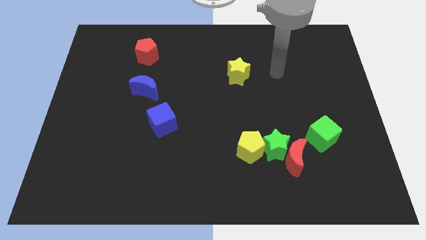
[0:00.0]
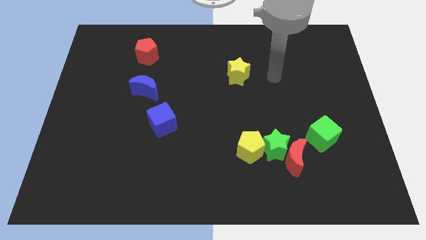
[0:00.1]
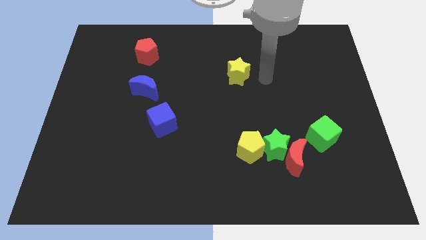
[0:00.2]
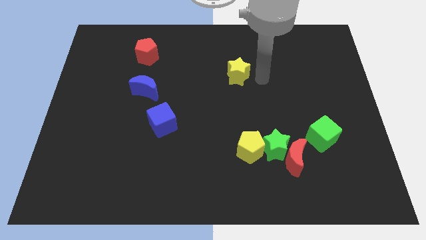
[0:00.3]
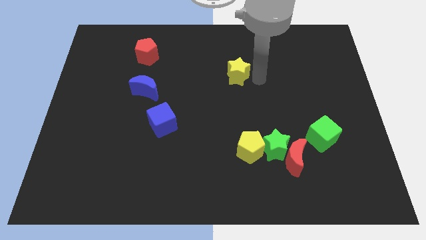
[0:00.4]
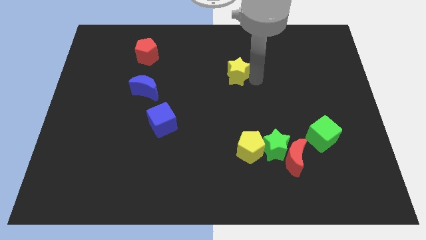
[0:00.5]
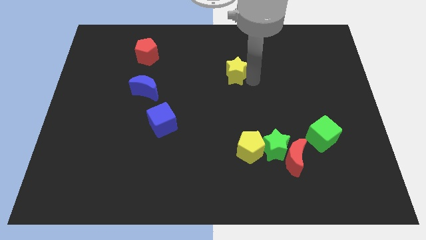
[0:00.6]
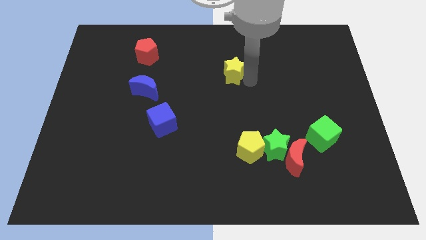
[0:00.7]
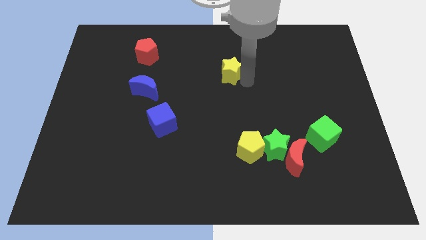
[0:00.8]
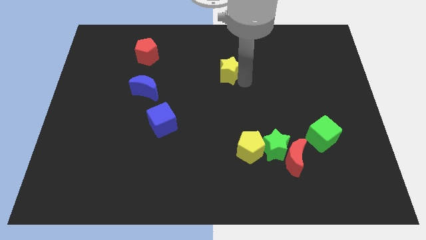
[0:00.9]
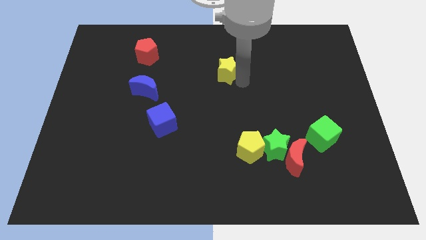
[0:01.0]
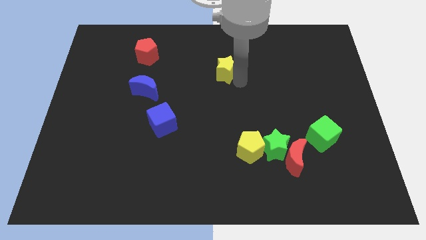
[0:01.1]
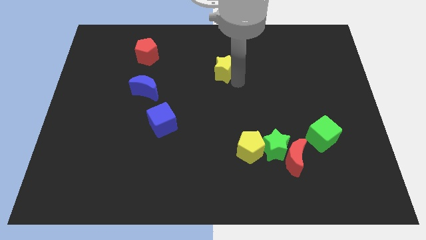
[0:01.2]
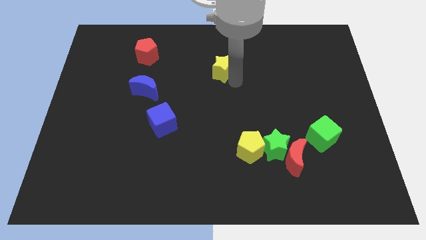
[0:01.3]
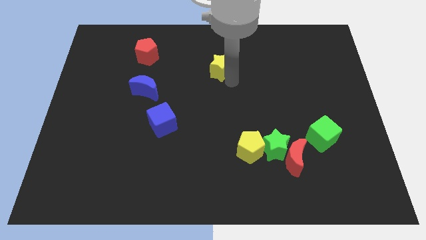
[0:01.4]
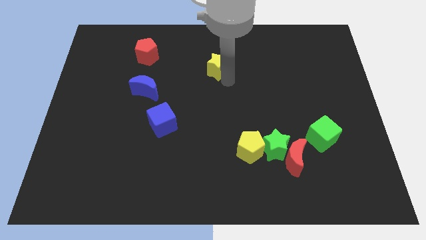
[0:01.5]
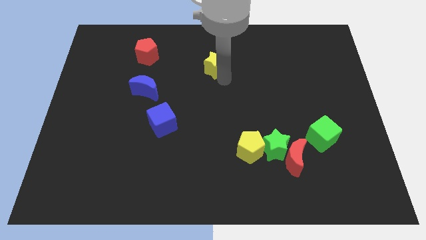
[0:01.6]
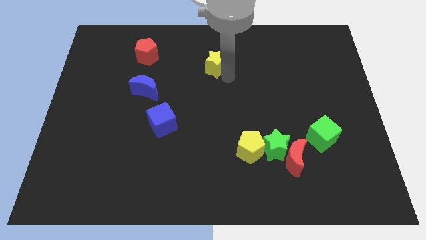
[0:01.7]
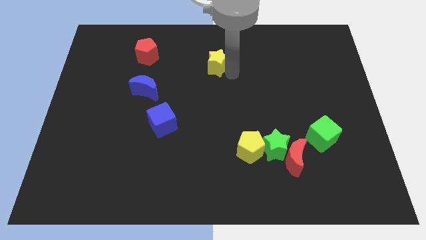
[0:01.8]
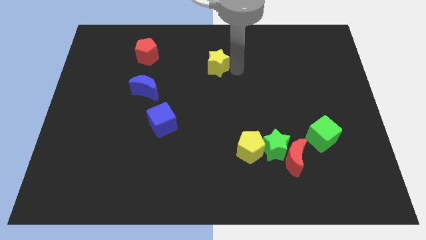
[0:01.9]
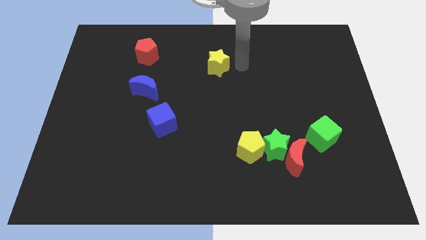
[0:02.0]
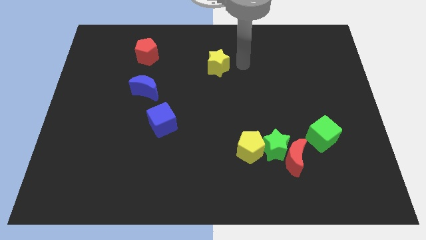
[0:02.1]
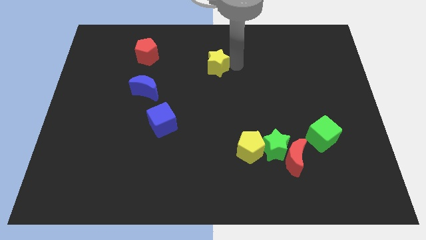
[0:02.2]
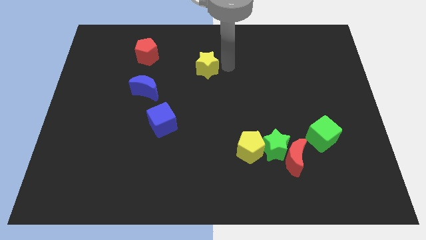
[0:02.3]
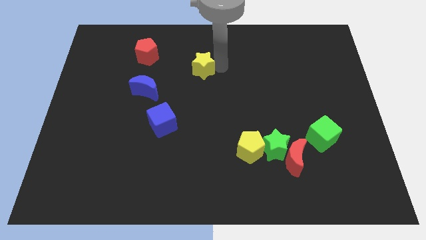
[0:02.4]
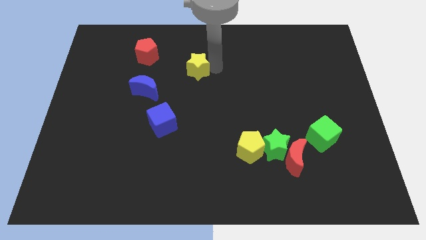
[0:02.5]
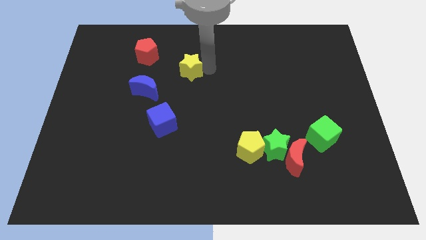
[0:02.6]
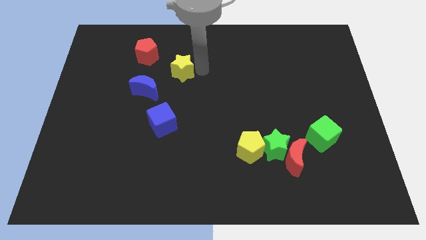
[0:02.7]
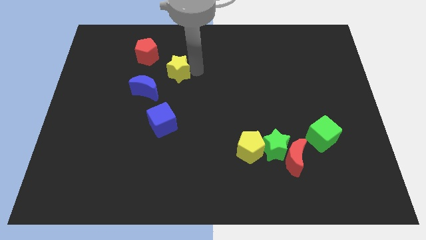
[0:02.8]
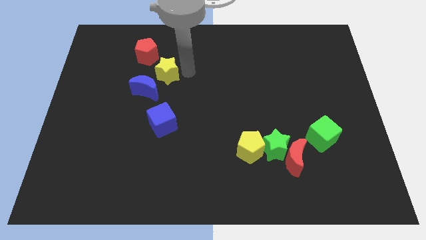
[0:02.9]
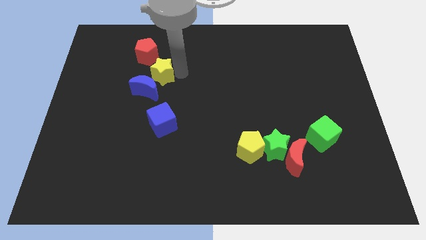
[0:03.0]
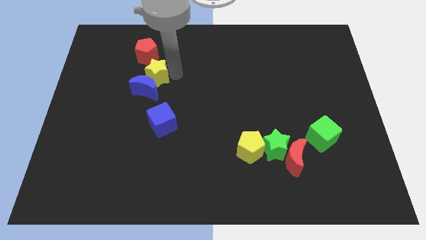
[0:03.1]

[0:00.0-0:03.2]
move the yellow star left

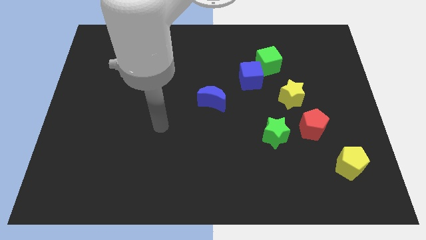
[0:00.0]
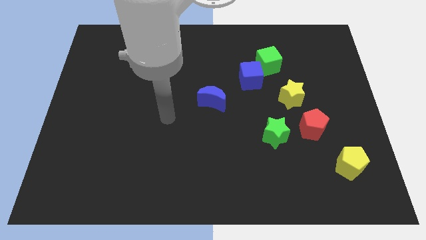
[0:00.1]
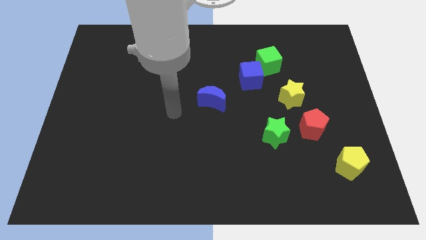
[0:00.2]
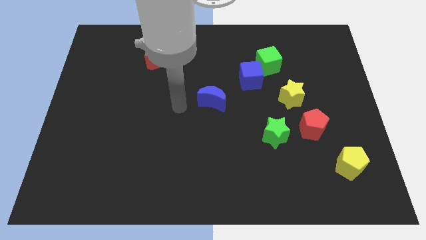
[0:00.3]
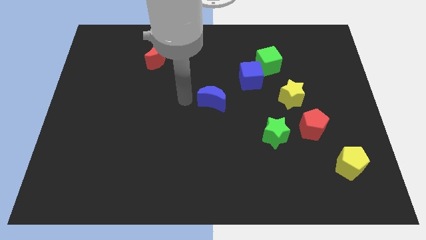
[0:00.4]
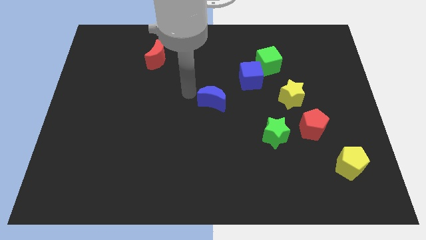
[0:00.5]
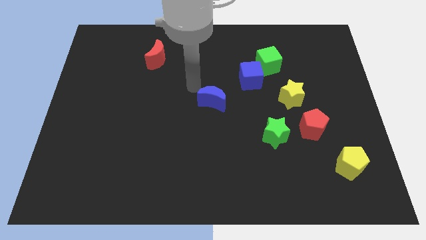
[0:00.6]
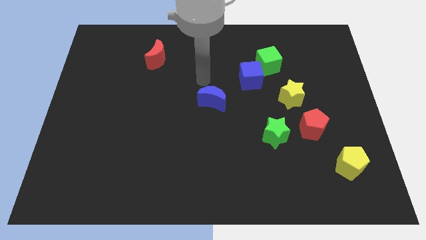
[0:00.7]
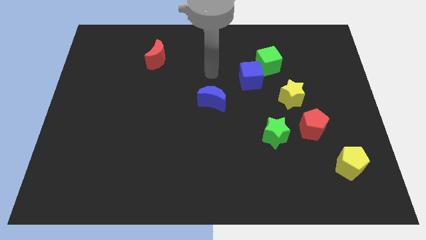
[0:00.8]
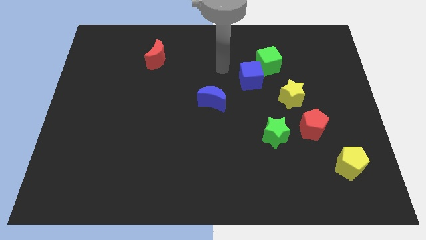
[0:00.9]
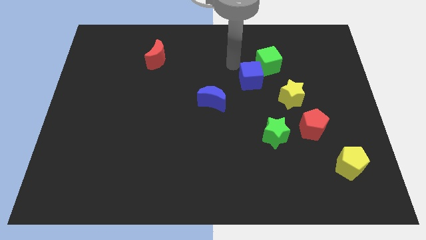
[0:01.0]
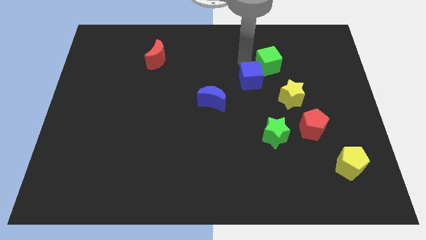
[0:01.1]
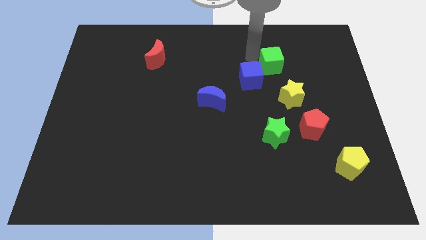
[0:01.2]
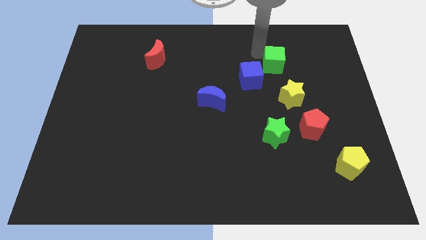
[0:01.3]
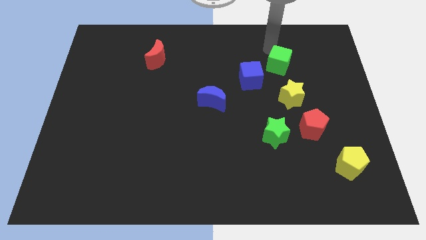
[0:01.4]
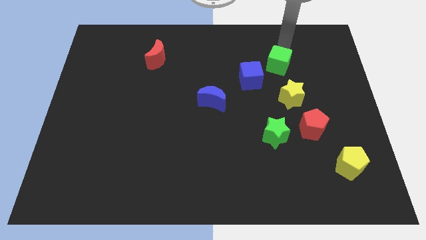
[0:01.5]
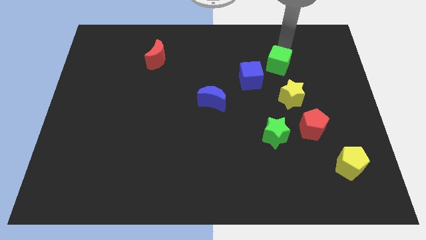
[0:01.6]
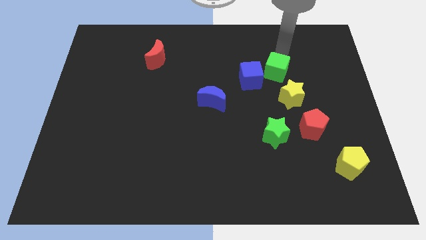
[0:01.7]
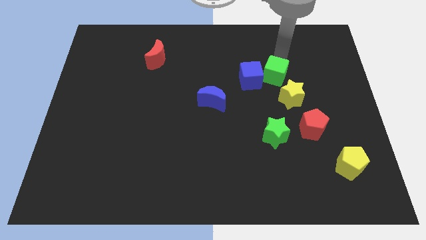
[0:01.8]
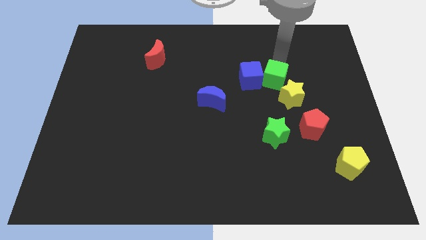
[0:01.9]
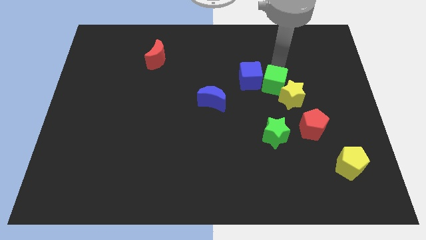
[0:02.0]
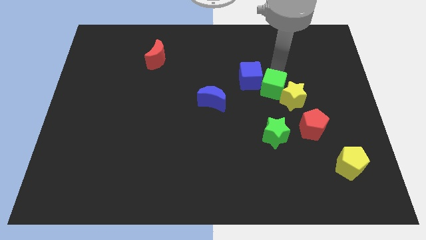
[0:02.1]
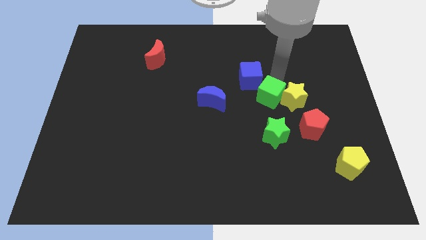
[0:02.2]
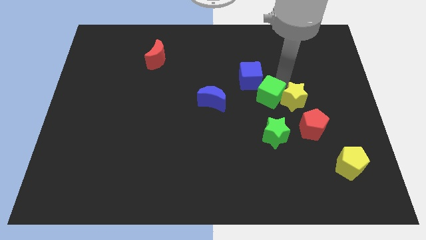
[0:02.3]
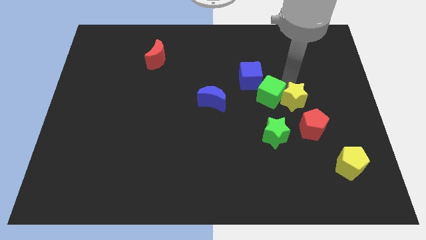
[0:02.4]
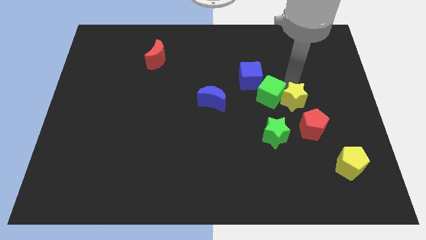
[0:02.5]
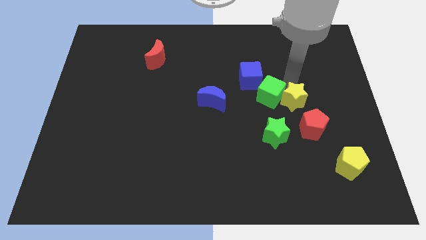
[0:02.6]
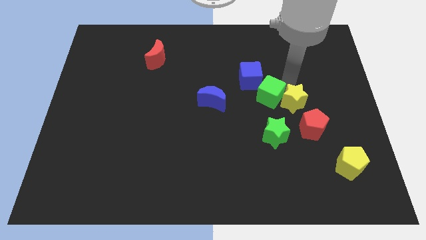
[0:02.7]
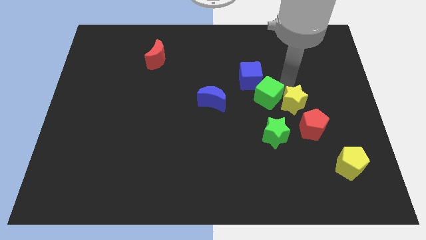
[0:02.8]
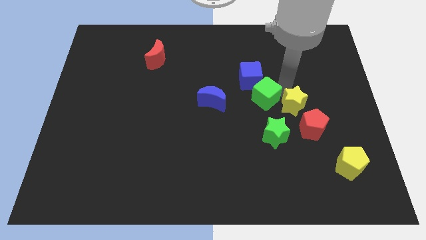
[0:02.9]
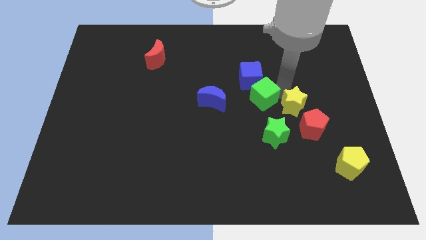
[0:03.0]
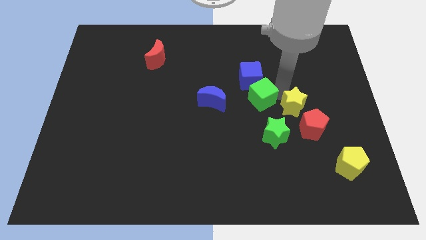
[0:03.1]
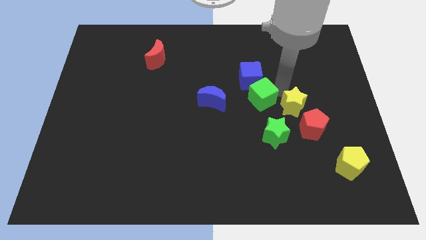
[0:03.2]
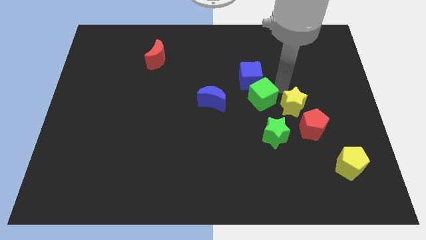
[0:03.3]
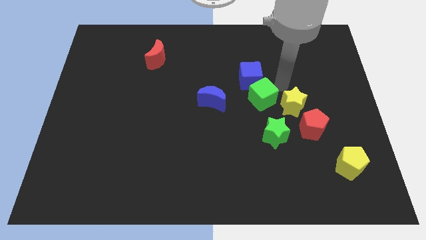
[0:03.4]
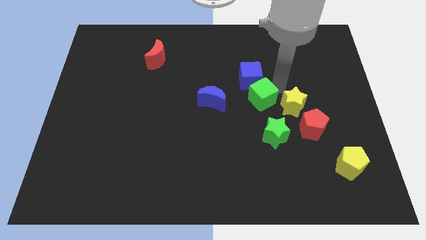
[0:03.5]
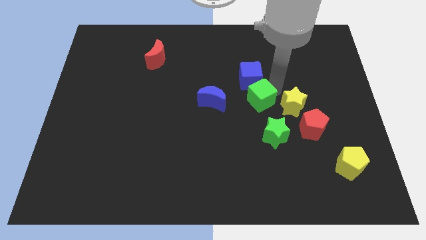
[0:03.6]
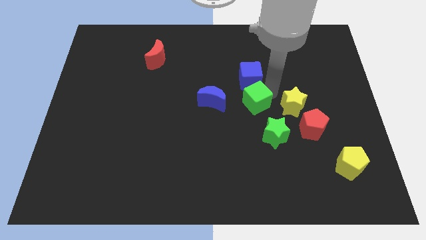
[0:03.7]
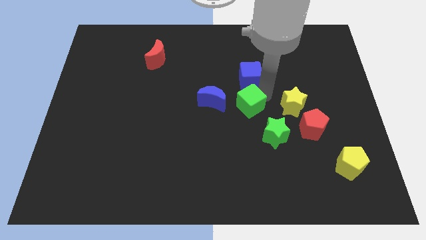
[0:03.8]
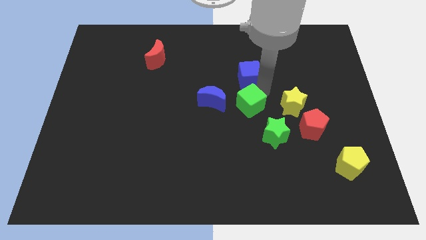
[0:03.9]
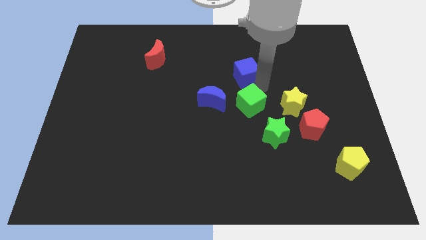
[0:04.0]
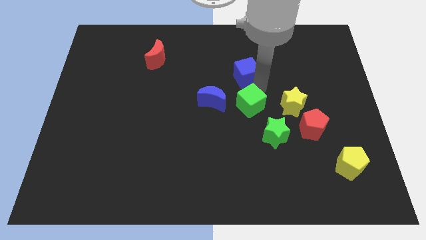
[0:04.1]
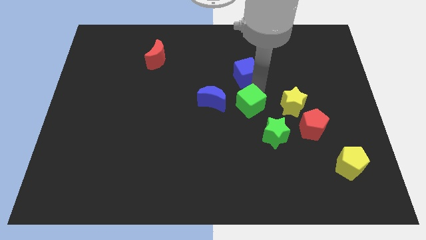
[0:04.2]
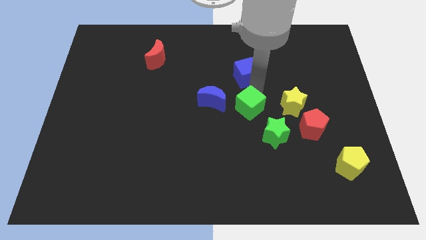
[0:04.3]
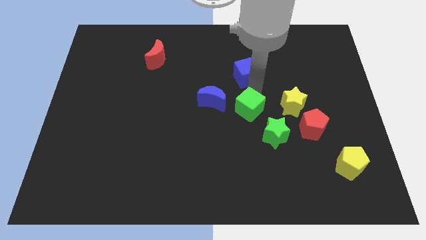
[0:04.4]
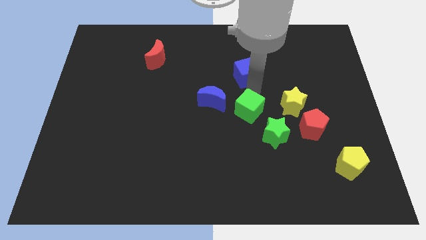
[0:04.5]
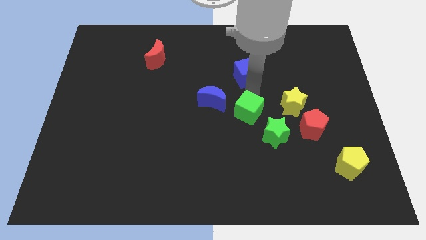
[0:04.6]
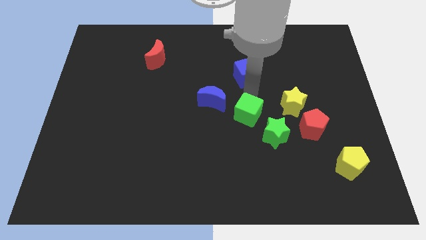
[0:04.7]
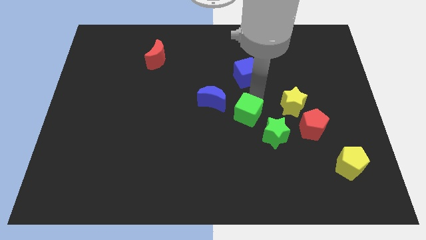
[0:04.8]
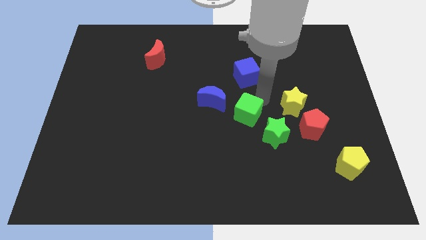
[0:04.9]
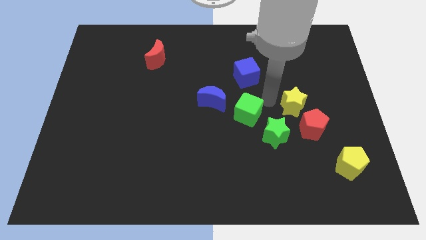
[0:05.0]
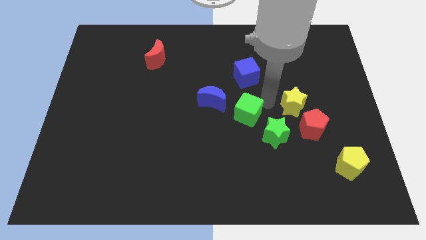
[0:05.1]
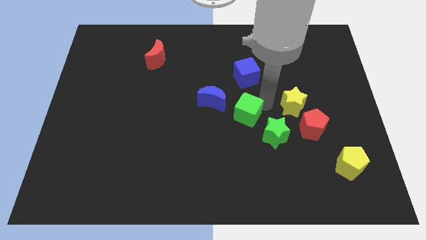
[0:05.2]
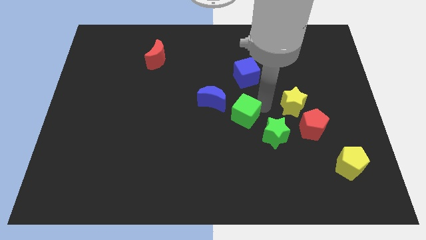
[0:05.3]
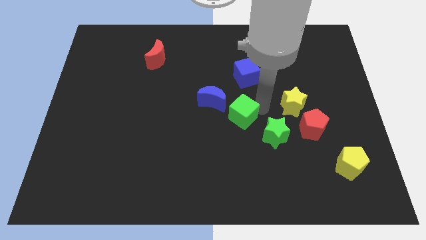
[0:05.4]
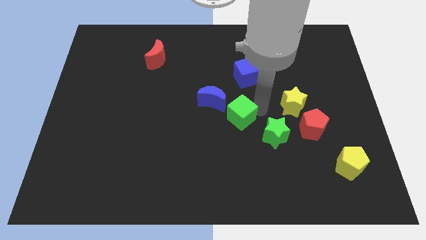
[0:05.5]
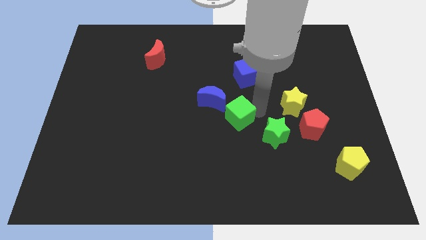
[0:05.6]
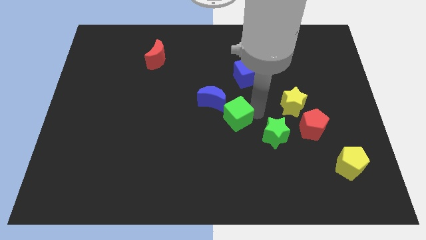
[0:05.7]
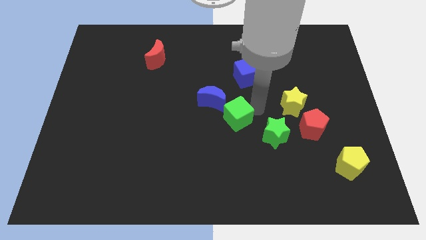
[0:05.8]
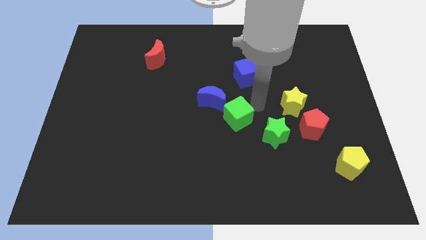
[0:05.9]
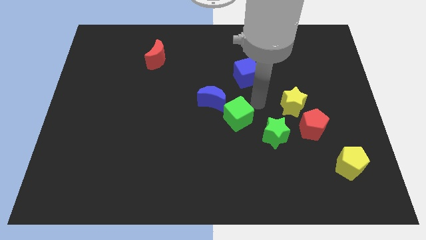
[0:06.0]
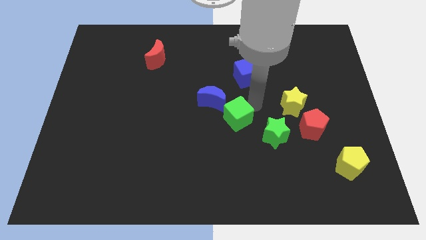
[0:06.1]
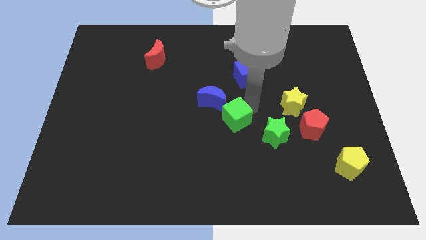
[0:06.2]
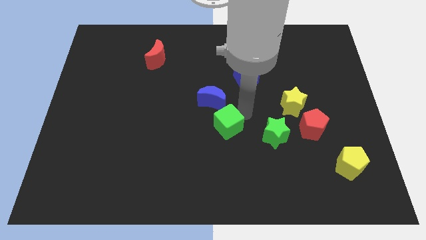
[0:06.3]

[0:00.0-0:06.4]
push the green cube down and left diagonally
